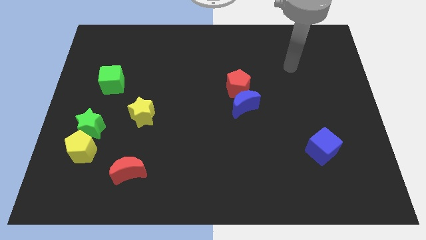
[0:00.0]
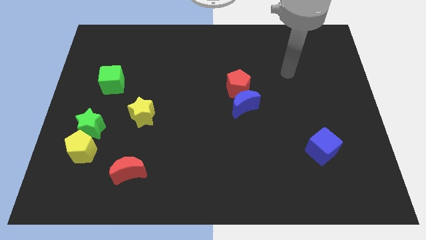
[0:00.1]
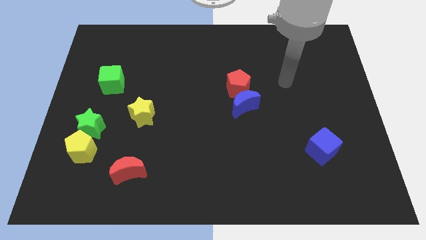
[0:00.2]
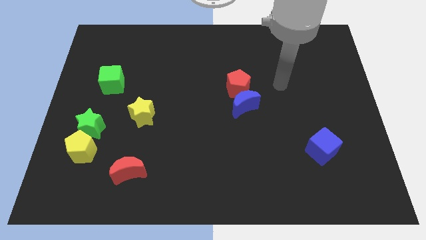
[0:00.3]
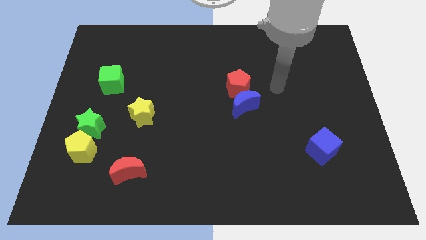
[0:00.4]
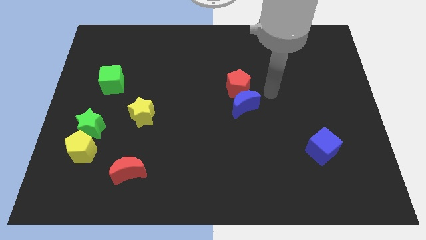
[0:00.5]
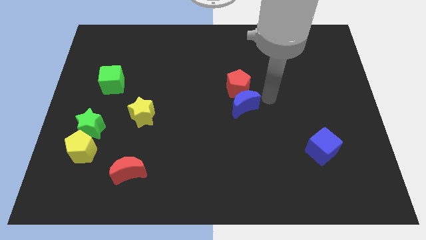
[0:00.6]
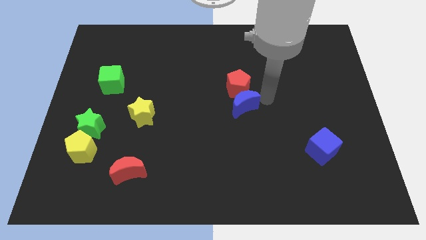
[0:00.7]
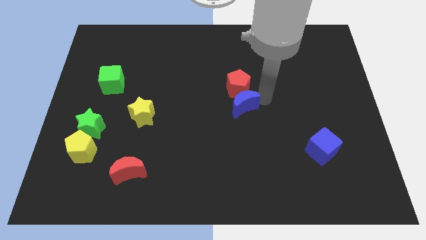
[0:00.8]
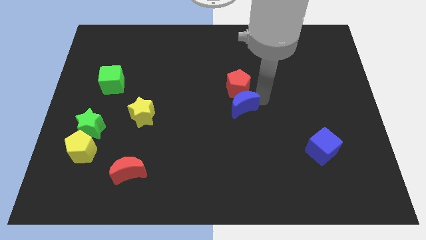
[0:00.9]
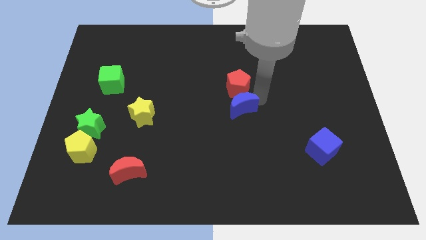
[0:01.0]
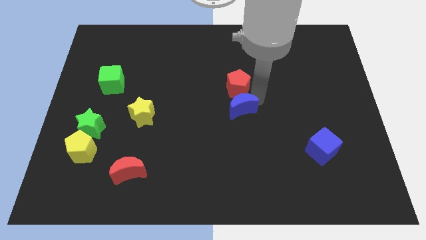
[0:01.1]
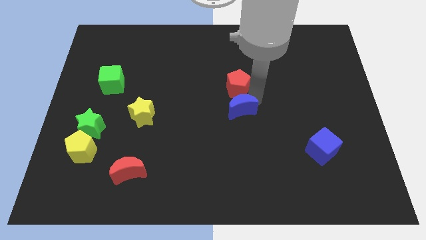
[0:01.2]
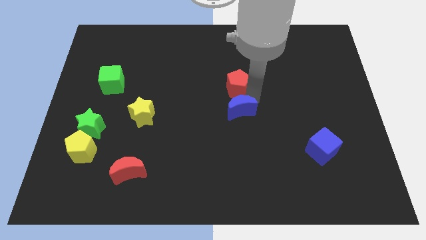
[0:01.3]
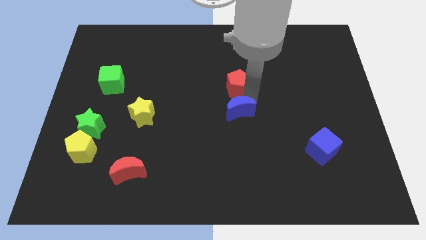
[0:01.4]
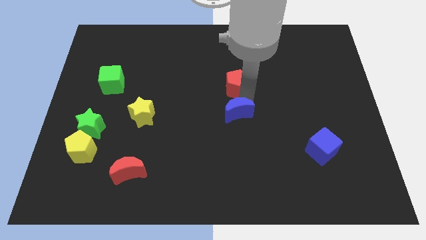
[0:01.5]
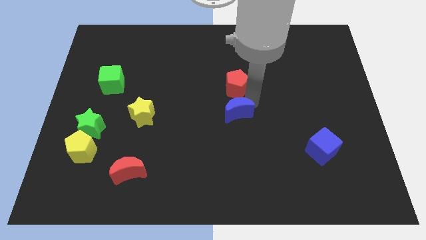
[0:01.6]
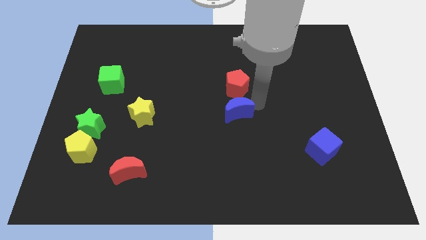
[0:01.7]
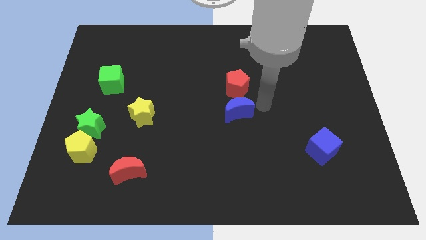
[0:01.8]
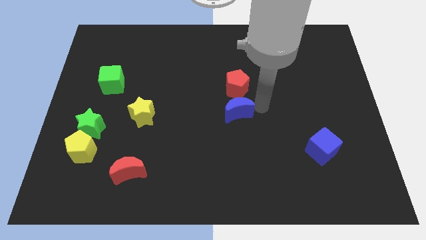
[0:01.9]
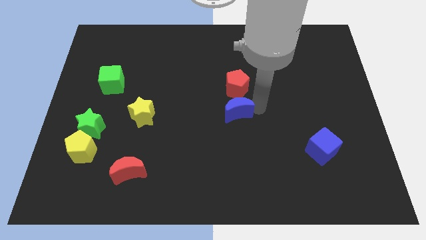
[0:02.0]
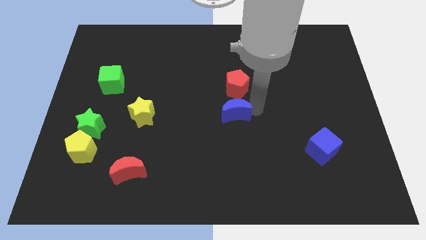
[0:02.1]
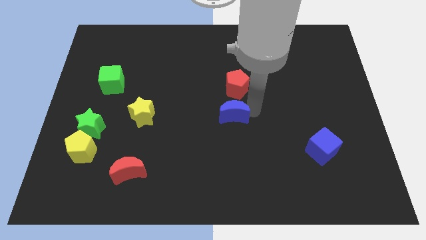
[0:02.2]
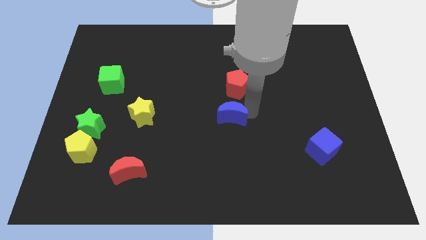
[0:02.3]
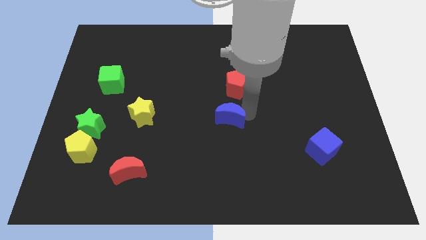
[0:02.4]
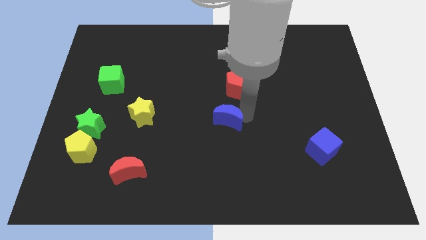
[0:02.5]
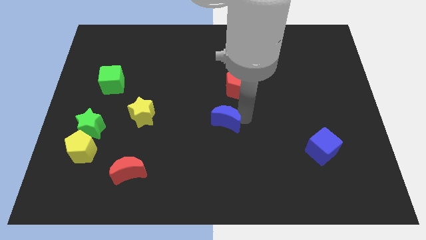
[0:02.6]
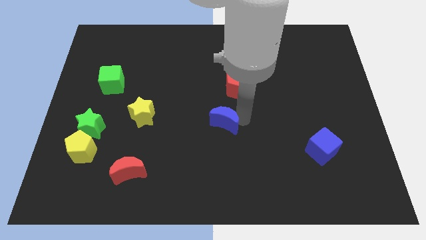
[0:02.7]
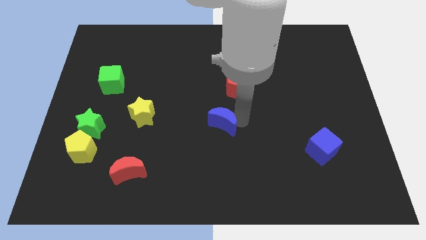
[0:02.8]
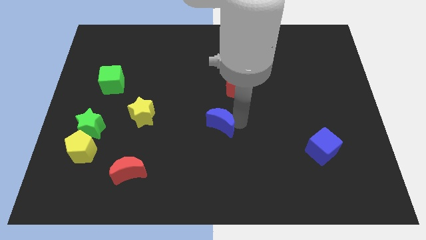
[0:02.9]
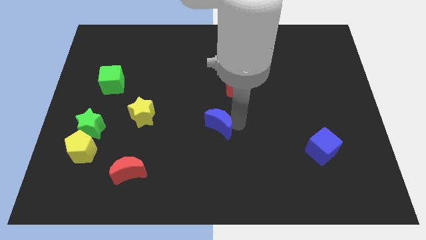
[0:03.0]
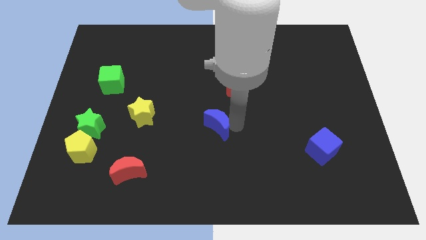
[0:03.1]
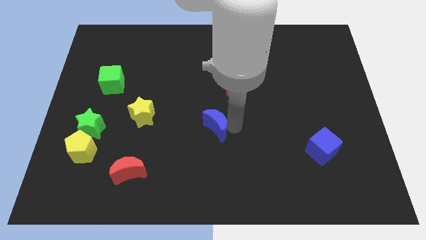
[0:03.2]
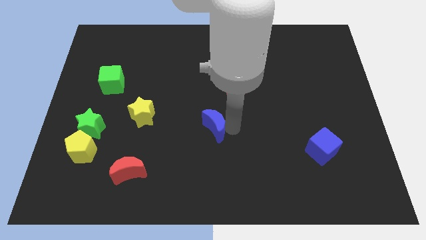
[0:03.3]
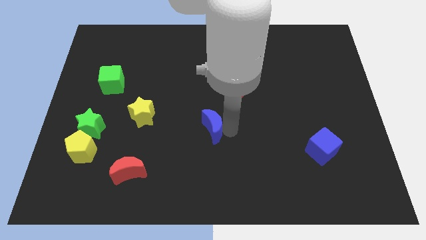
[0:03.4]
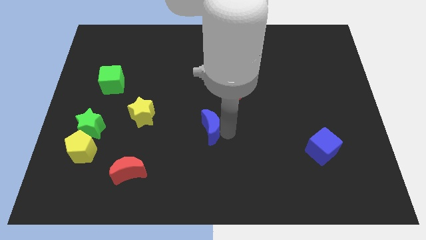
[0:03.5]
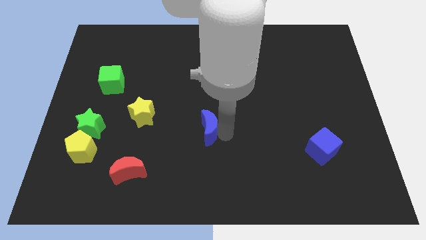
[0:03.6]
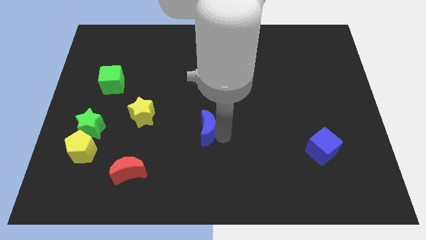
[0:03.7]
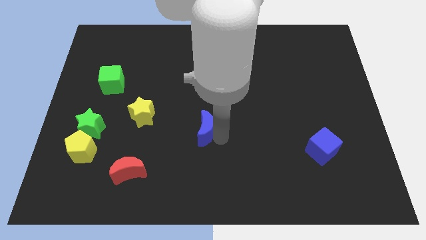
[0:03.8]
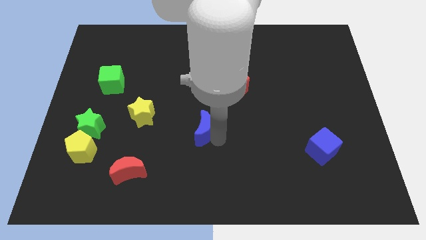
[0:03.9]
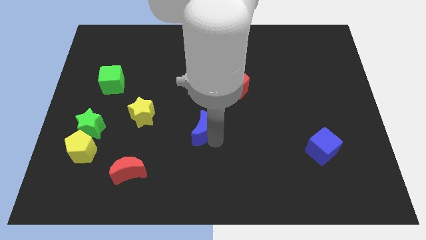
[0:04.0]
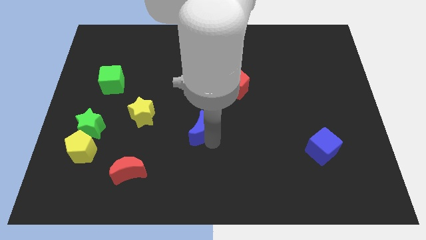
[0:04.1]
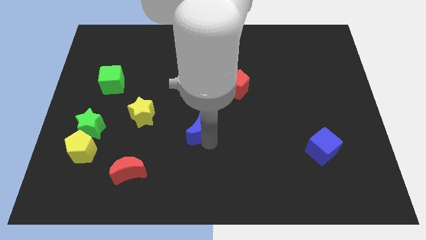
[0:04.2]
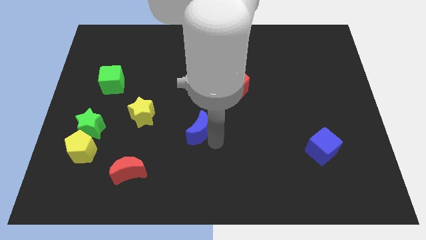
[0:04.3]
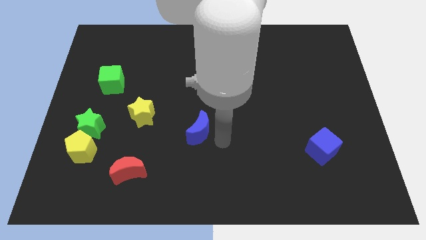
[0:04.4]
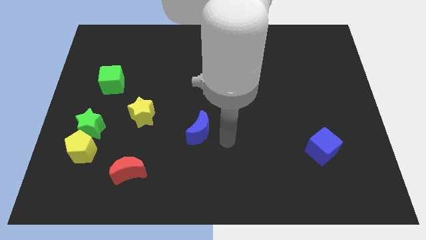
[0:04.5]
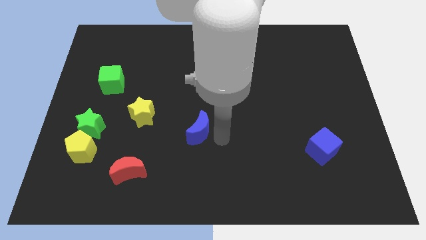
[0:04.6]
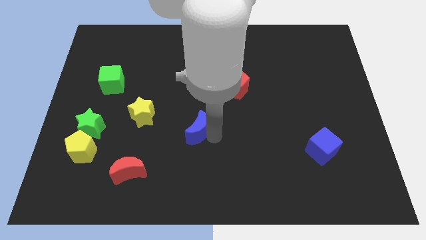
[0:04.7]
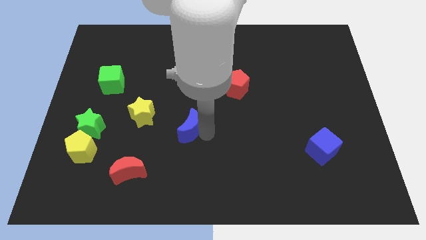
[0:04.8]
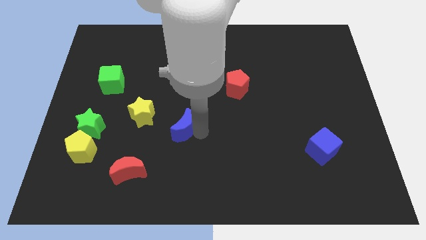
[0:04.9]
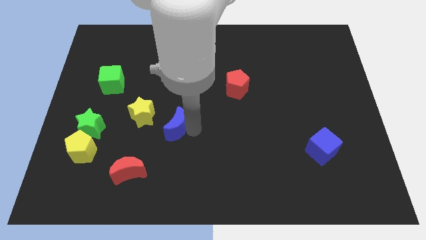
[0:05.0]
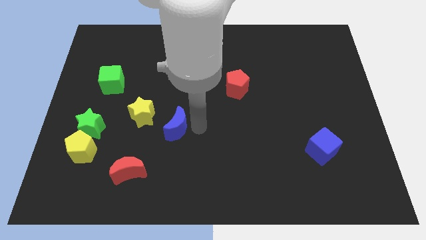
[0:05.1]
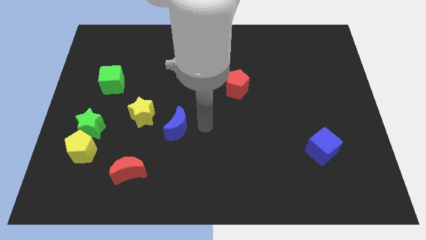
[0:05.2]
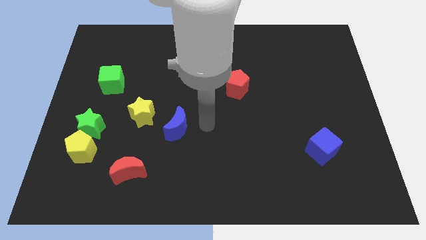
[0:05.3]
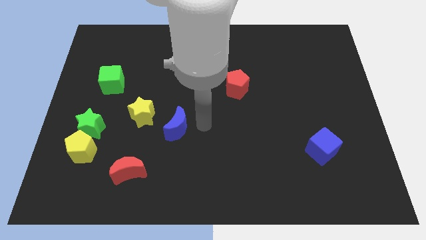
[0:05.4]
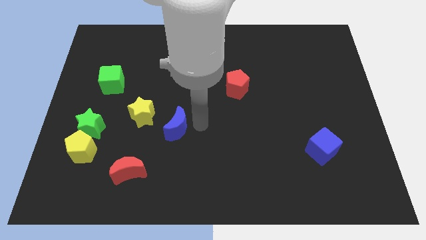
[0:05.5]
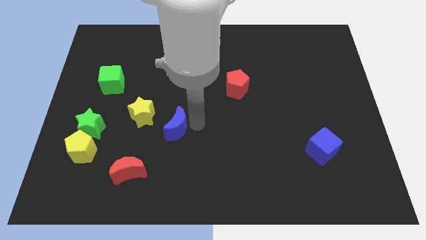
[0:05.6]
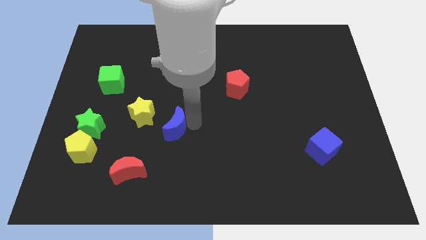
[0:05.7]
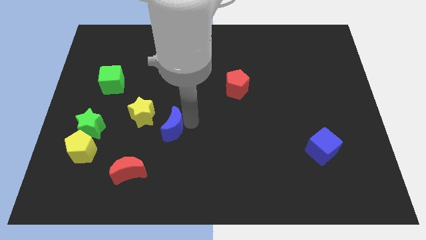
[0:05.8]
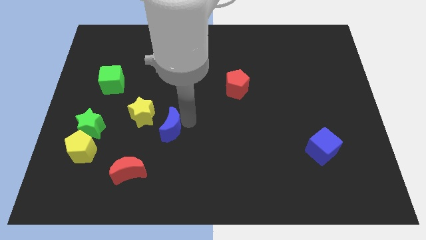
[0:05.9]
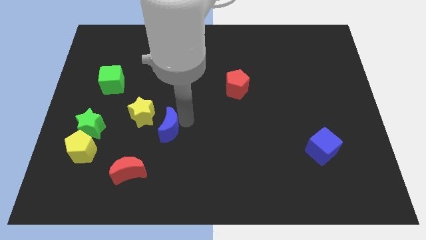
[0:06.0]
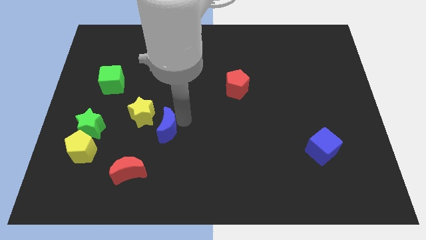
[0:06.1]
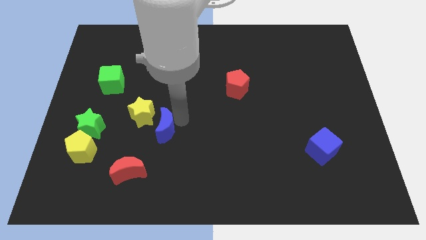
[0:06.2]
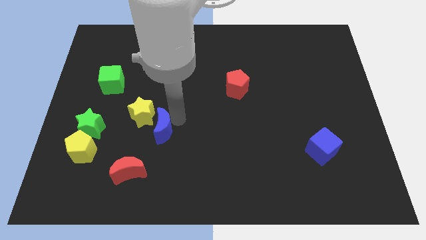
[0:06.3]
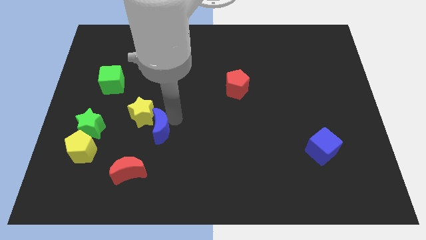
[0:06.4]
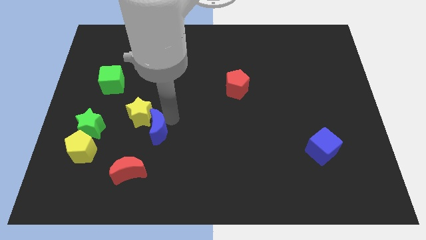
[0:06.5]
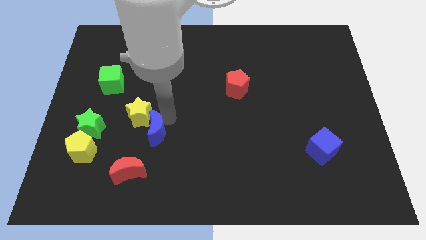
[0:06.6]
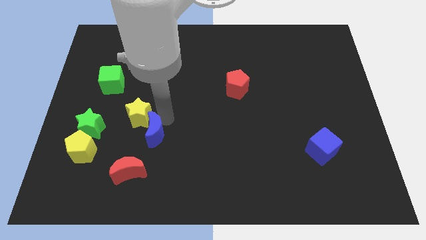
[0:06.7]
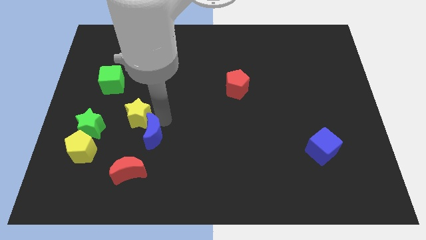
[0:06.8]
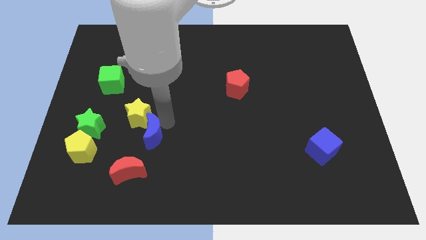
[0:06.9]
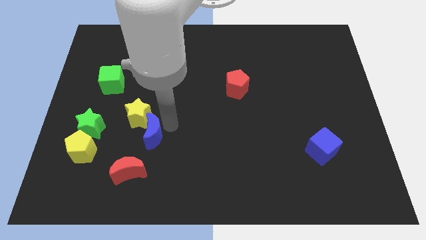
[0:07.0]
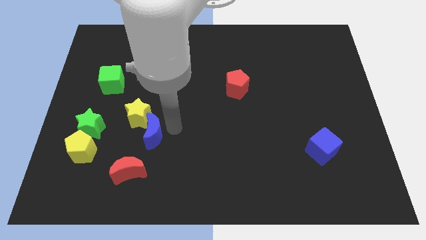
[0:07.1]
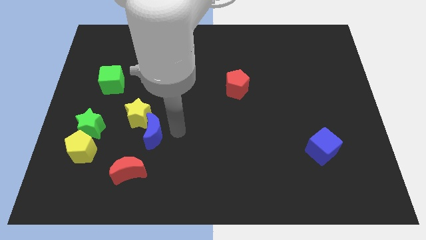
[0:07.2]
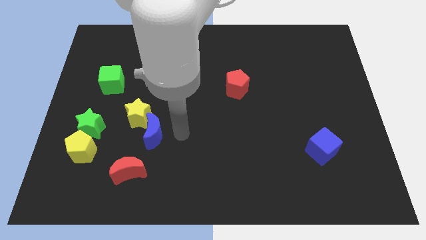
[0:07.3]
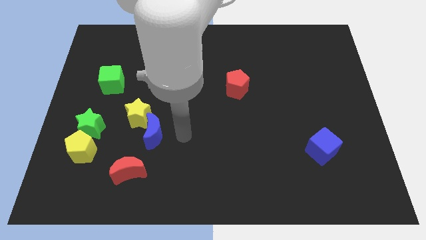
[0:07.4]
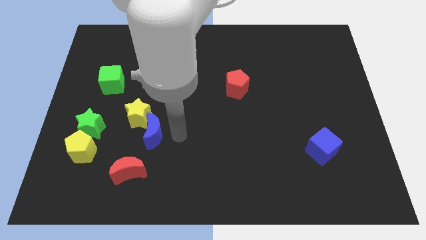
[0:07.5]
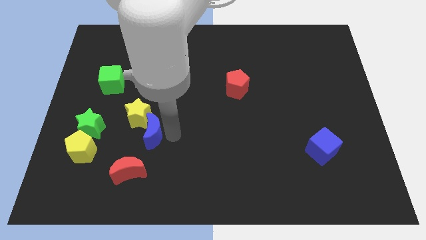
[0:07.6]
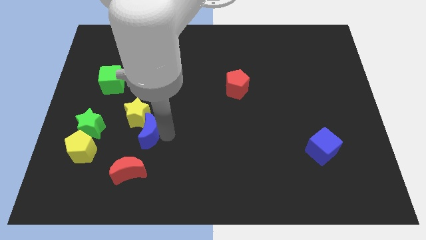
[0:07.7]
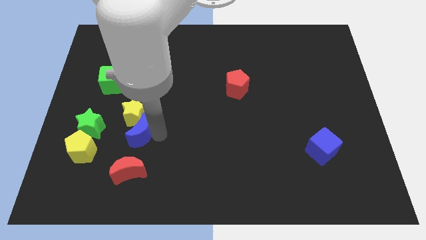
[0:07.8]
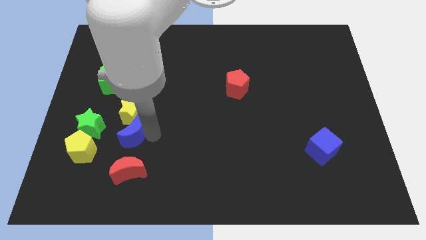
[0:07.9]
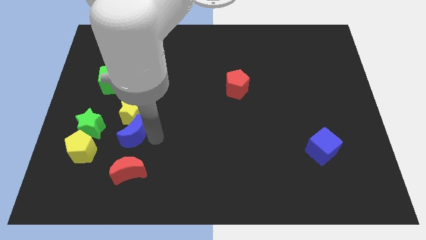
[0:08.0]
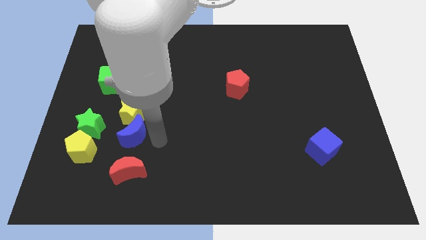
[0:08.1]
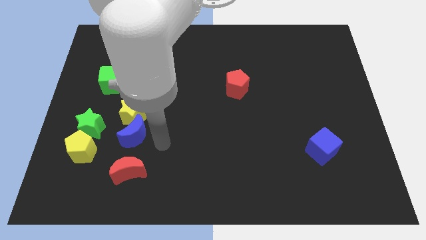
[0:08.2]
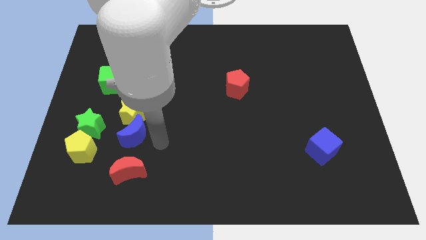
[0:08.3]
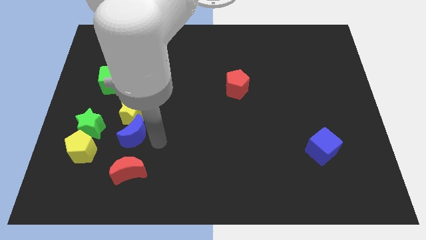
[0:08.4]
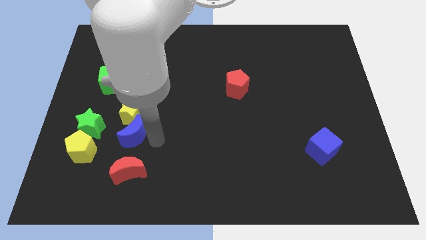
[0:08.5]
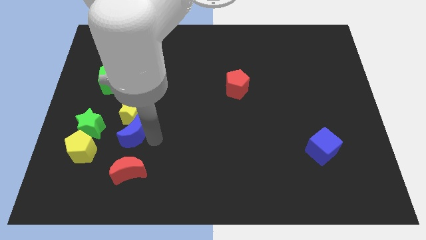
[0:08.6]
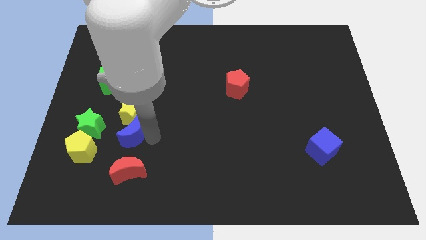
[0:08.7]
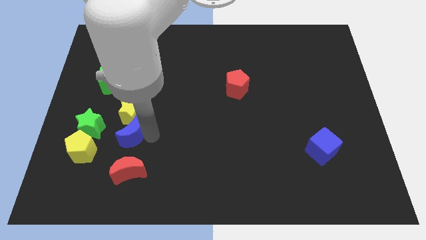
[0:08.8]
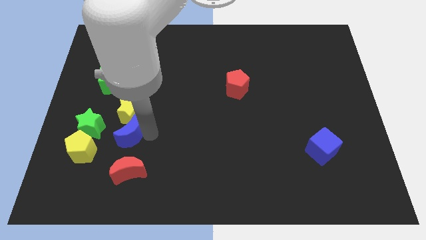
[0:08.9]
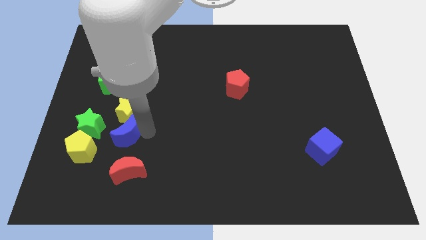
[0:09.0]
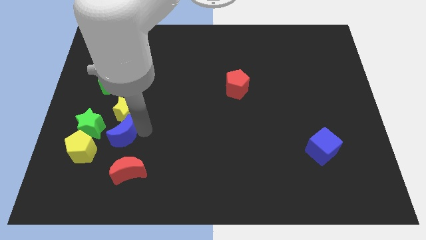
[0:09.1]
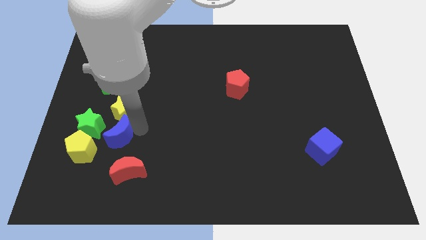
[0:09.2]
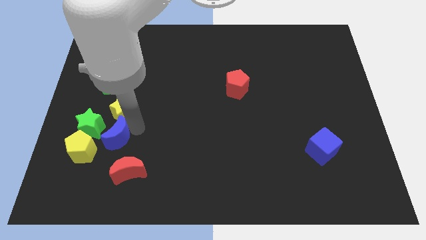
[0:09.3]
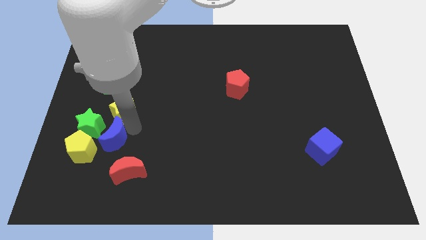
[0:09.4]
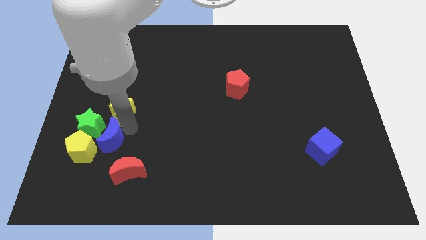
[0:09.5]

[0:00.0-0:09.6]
push the blue moon next to the green star
